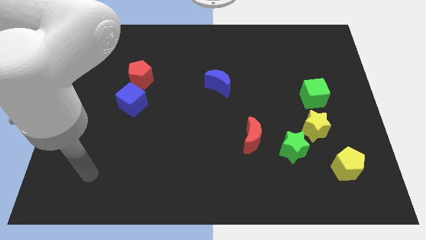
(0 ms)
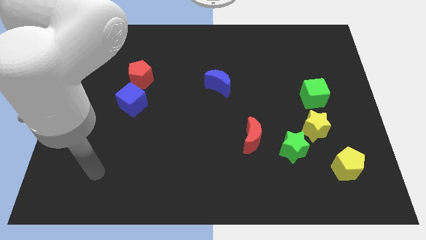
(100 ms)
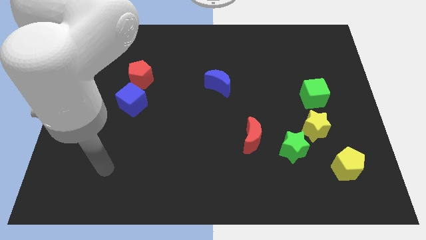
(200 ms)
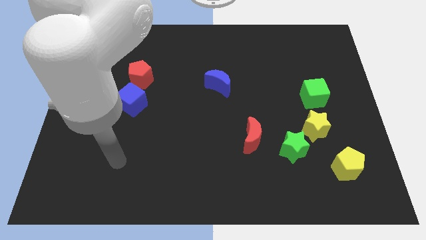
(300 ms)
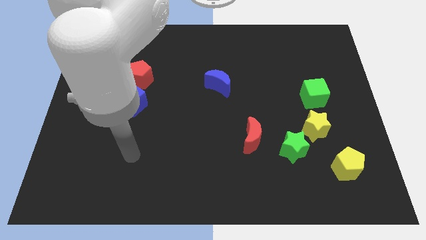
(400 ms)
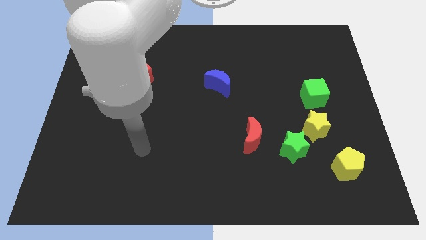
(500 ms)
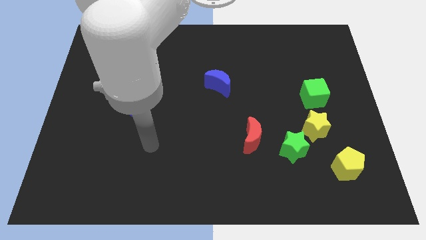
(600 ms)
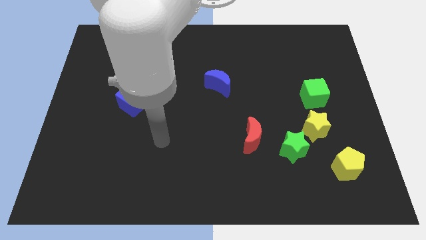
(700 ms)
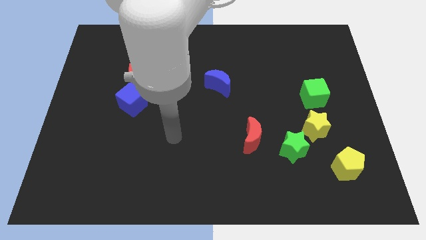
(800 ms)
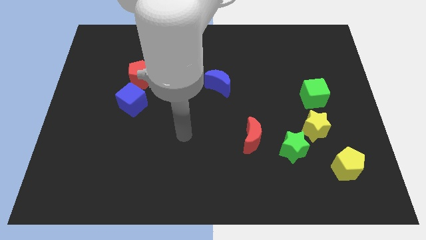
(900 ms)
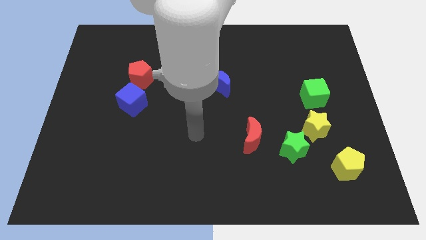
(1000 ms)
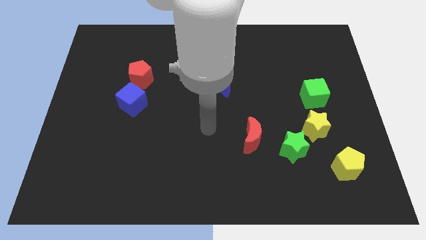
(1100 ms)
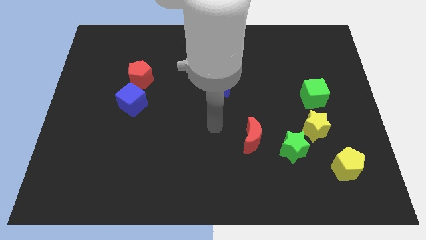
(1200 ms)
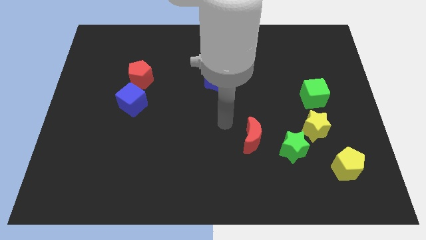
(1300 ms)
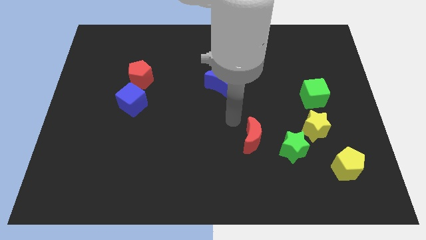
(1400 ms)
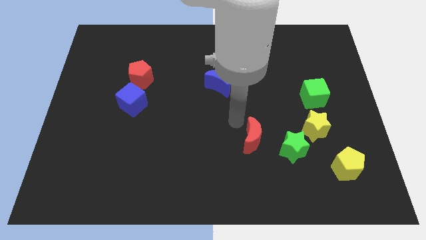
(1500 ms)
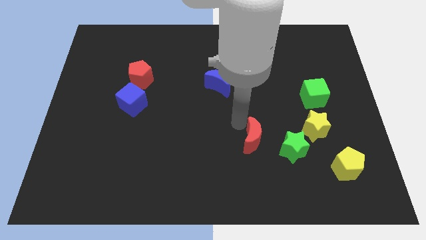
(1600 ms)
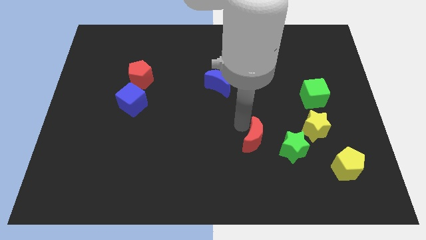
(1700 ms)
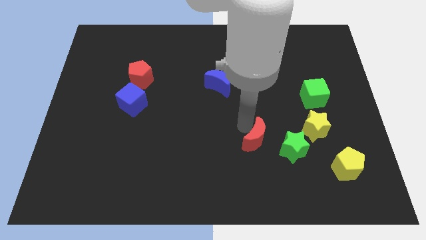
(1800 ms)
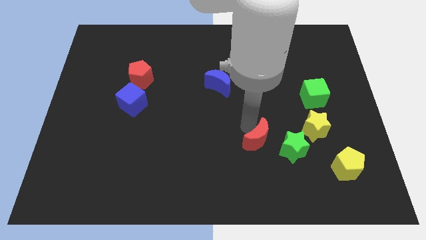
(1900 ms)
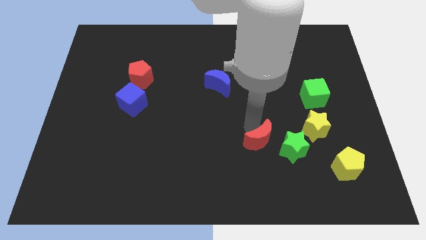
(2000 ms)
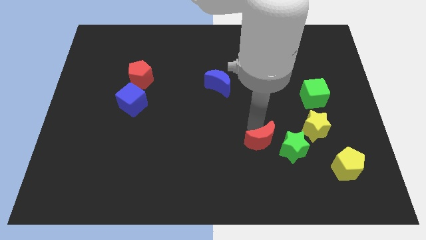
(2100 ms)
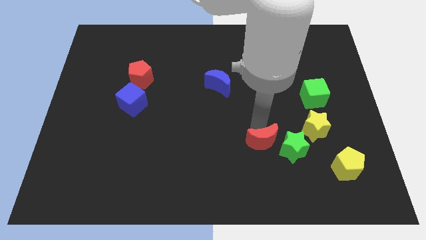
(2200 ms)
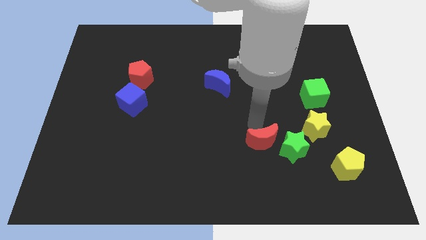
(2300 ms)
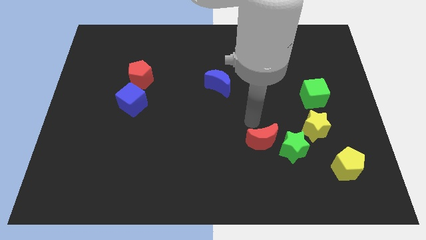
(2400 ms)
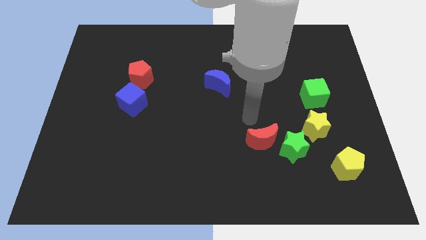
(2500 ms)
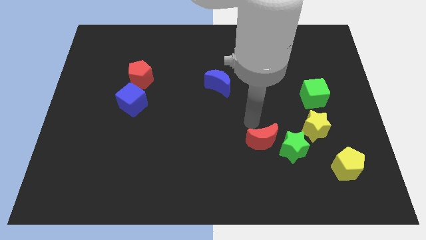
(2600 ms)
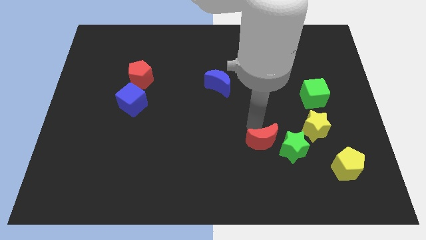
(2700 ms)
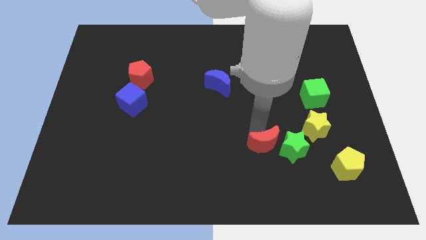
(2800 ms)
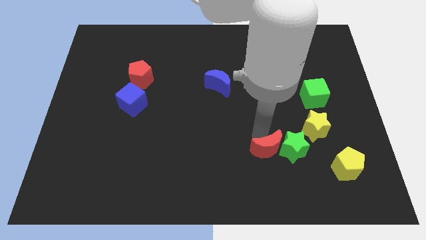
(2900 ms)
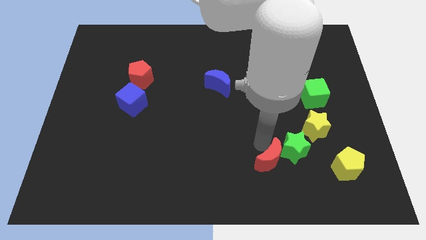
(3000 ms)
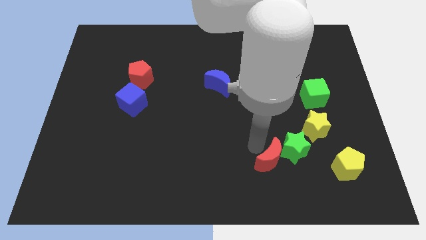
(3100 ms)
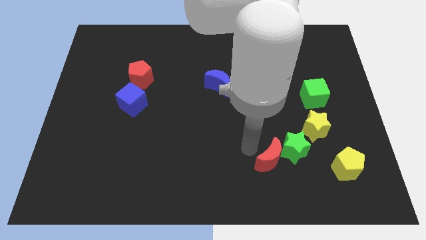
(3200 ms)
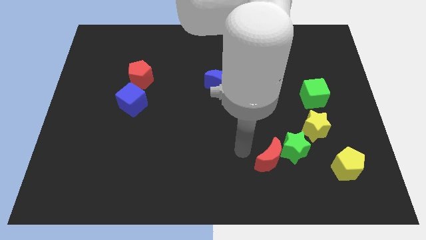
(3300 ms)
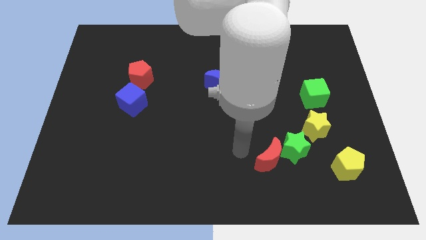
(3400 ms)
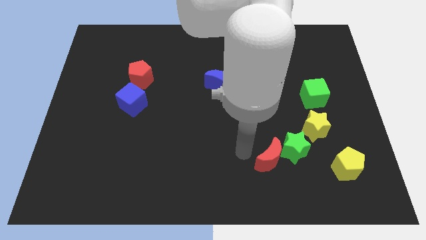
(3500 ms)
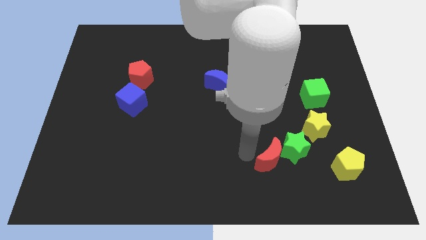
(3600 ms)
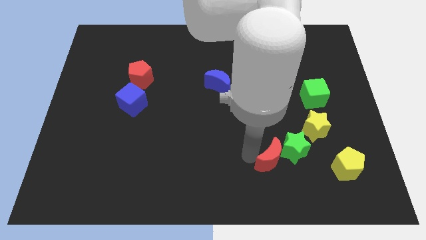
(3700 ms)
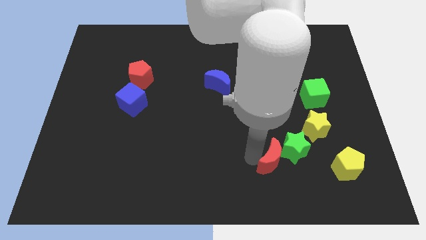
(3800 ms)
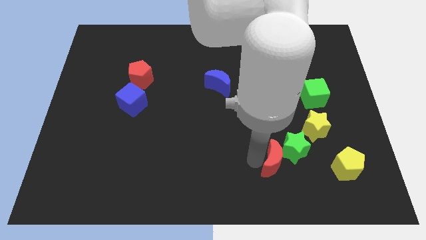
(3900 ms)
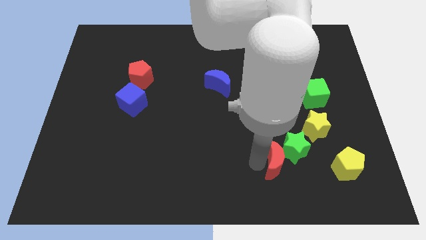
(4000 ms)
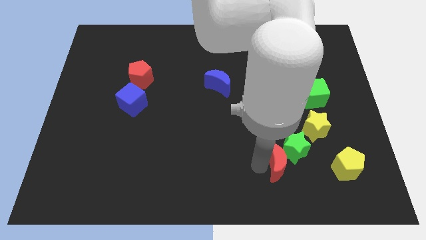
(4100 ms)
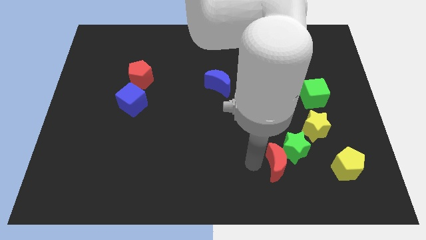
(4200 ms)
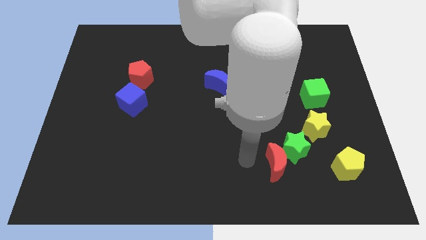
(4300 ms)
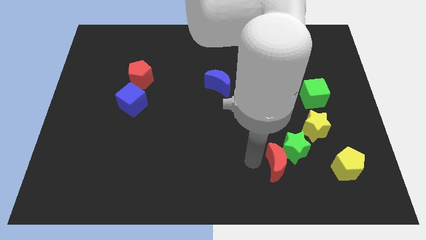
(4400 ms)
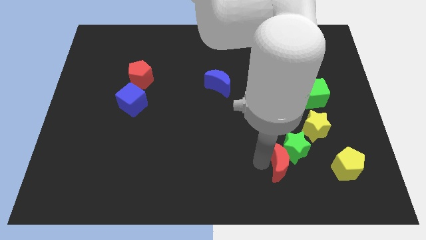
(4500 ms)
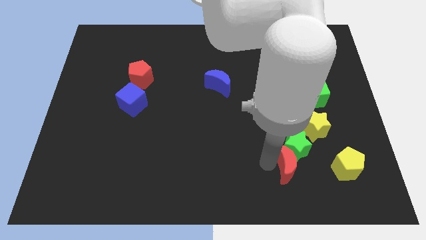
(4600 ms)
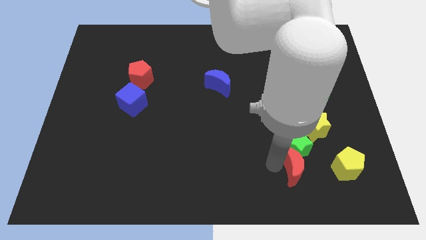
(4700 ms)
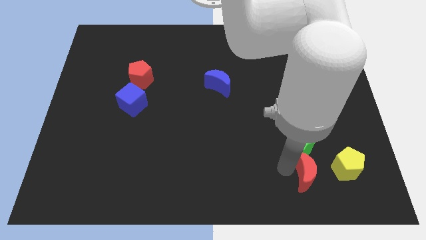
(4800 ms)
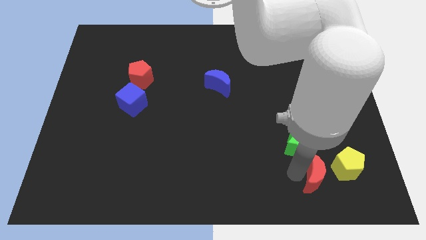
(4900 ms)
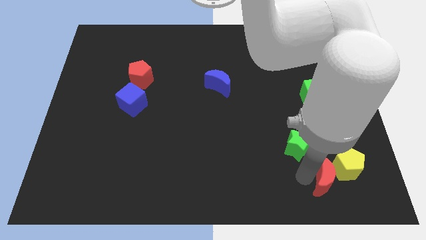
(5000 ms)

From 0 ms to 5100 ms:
push the red moon to the yellow pentagon

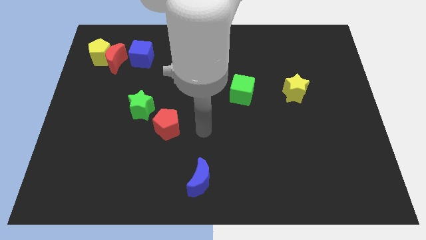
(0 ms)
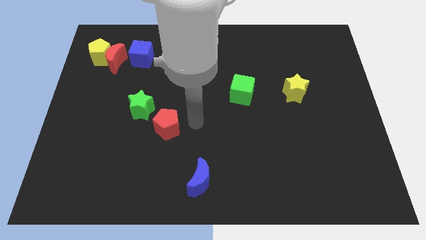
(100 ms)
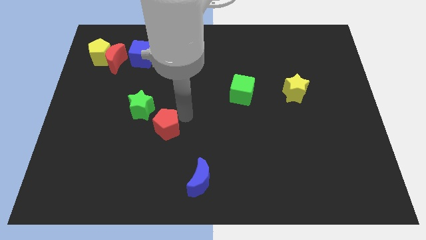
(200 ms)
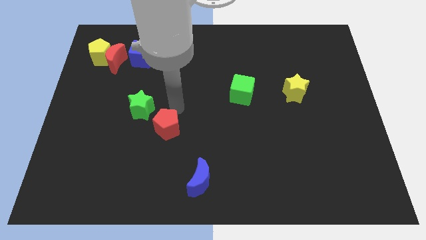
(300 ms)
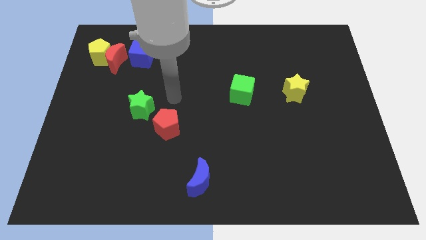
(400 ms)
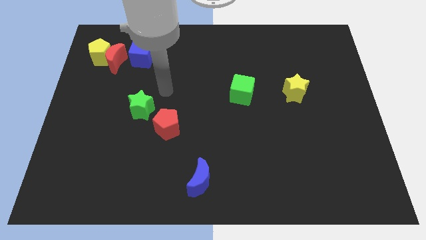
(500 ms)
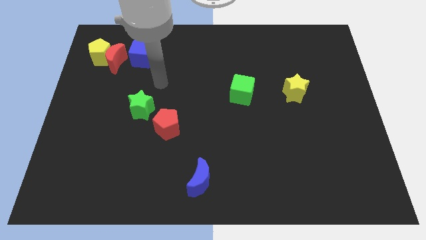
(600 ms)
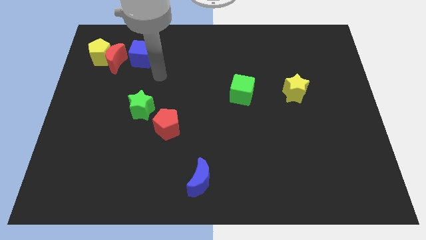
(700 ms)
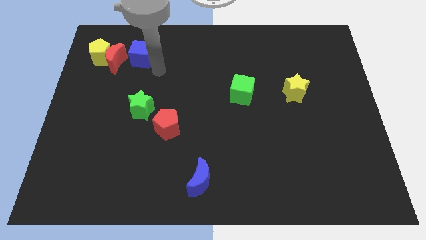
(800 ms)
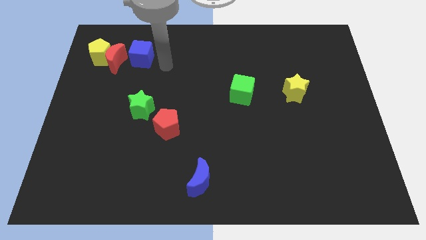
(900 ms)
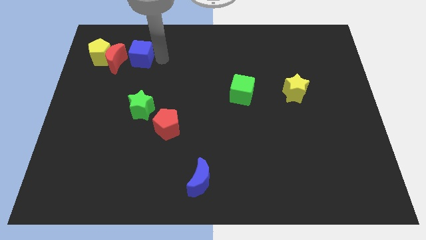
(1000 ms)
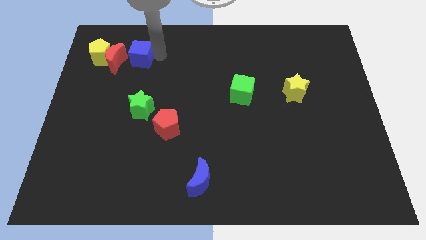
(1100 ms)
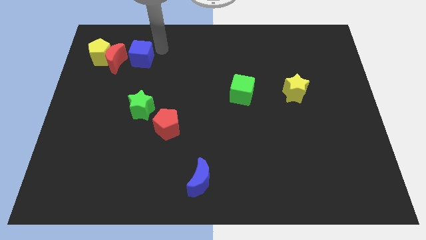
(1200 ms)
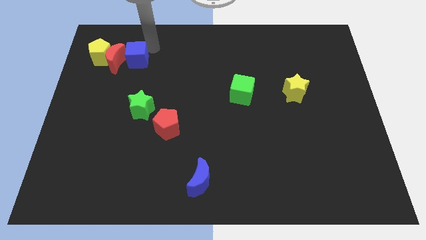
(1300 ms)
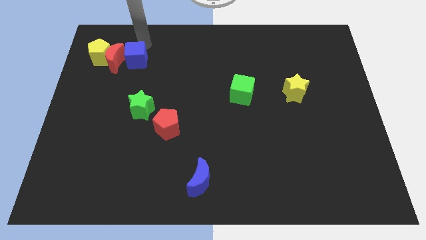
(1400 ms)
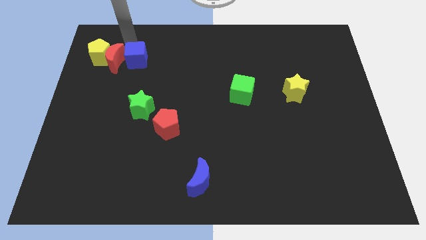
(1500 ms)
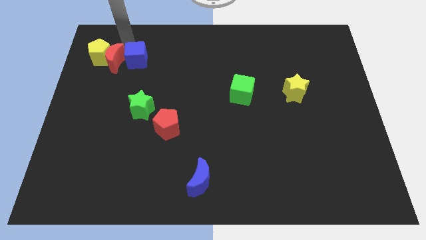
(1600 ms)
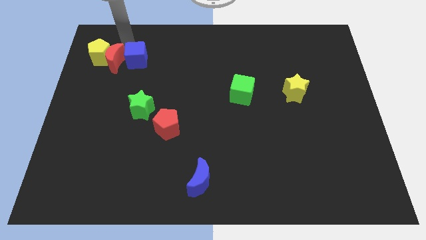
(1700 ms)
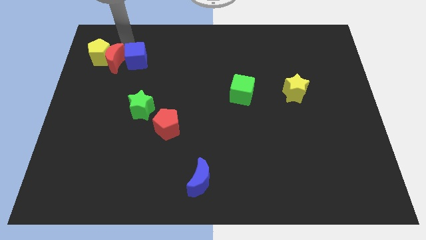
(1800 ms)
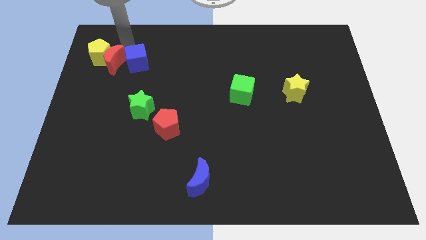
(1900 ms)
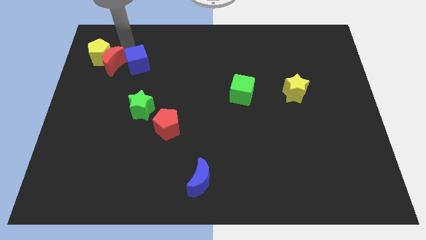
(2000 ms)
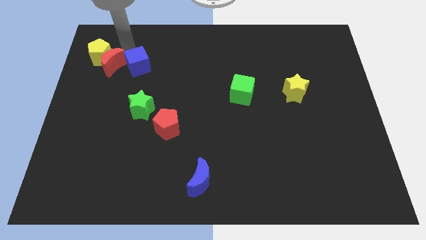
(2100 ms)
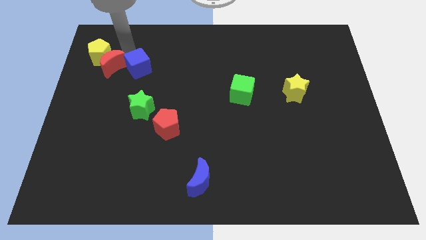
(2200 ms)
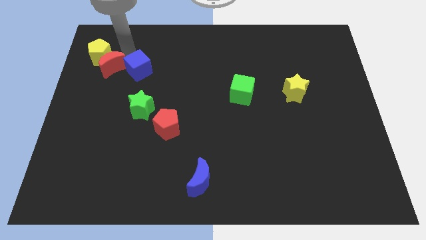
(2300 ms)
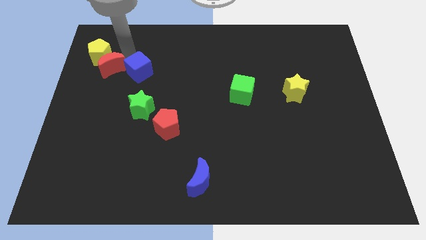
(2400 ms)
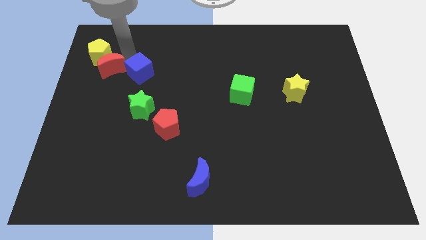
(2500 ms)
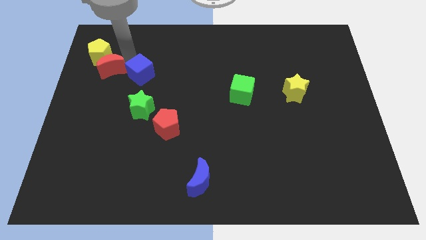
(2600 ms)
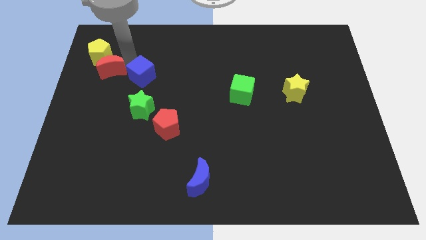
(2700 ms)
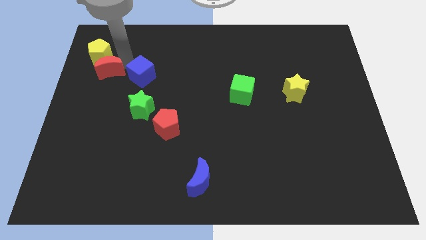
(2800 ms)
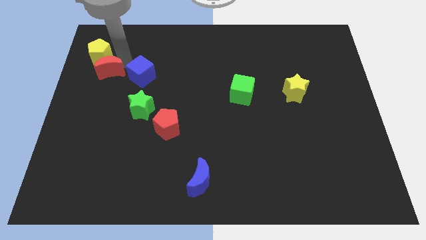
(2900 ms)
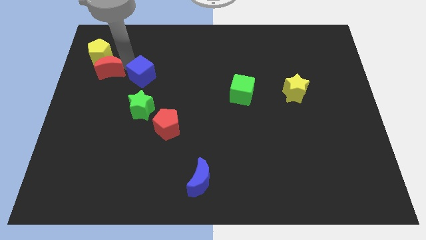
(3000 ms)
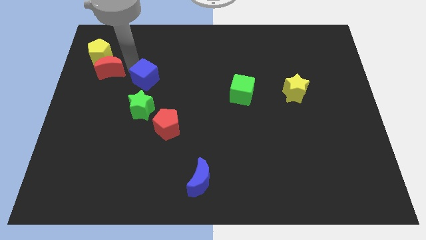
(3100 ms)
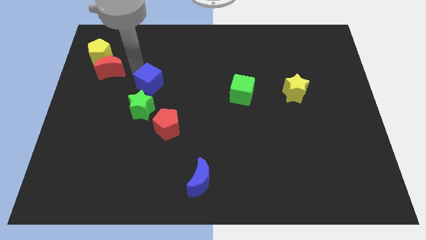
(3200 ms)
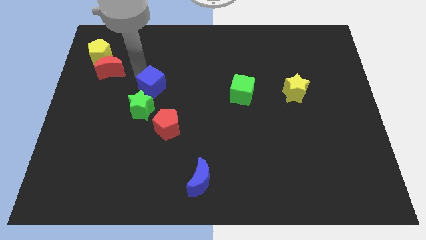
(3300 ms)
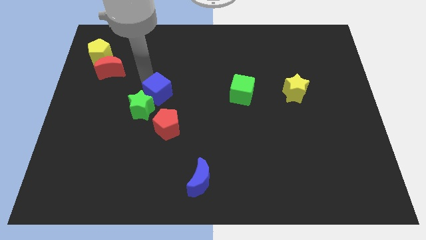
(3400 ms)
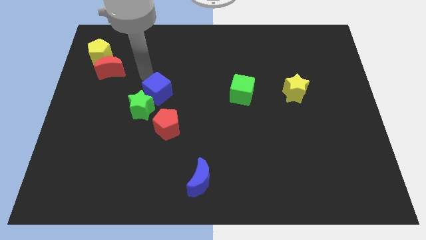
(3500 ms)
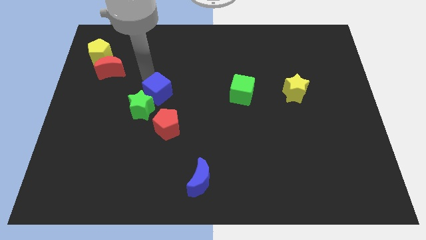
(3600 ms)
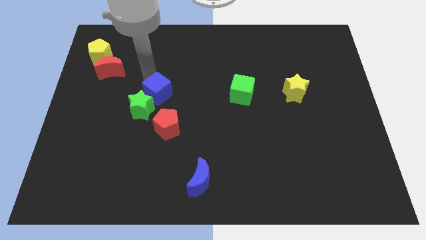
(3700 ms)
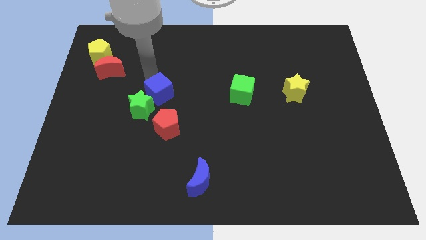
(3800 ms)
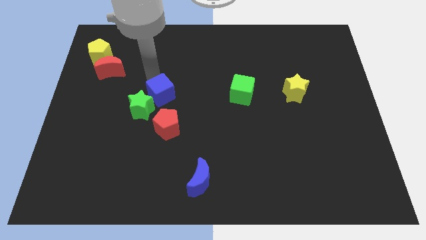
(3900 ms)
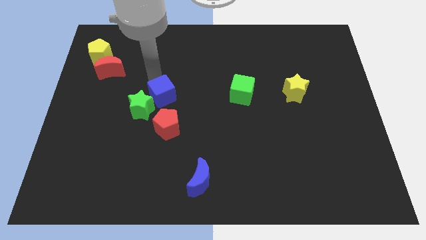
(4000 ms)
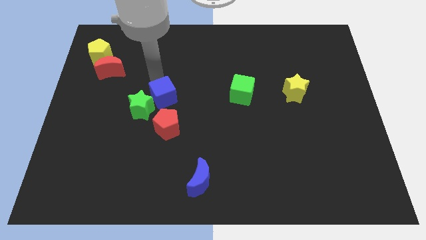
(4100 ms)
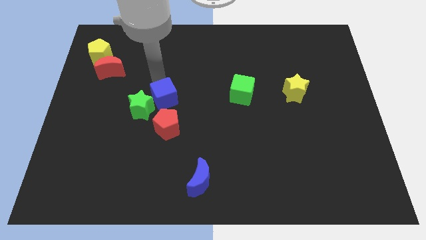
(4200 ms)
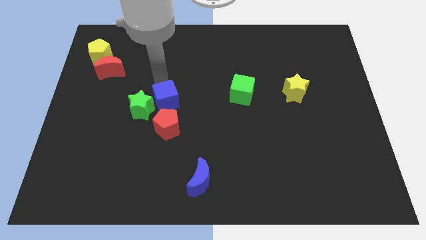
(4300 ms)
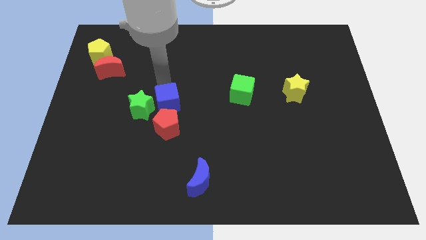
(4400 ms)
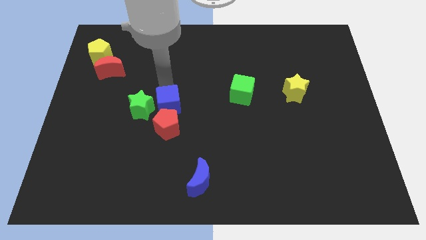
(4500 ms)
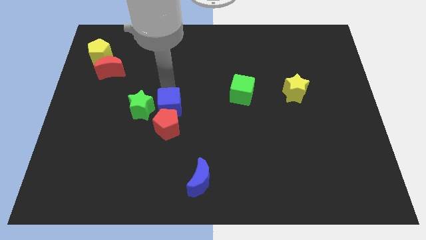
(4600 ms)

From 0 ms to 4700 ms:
move the blue cube close to the red pentagon
